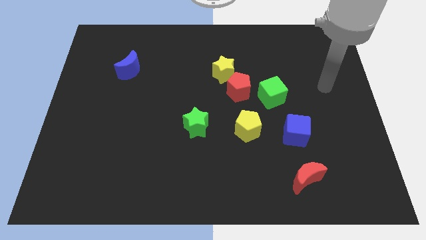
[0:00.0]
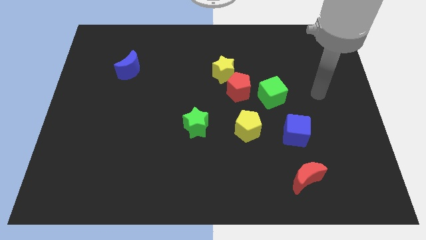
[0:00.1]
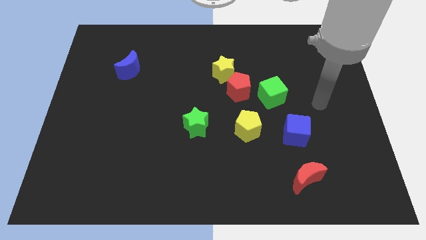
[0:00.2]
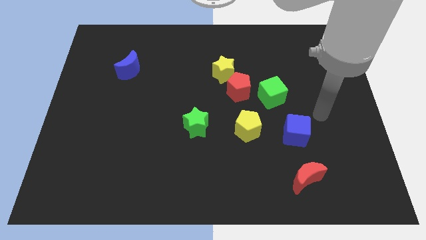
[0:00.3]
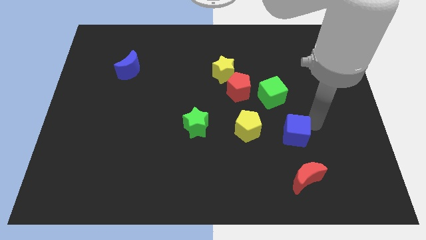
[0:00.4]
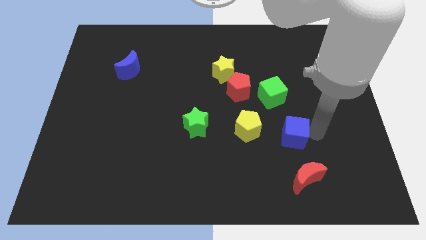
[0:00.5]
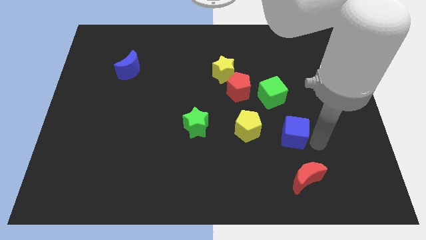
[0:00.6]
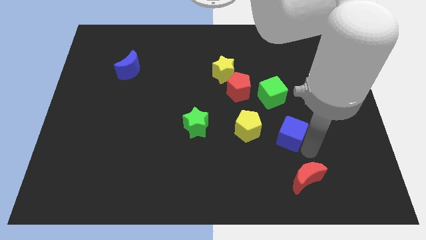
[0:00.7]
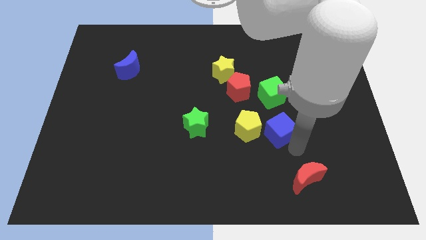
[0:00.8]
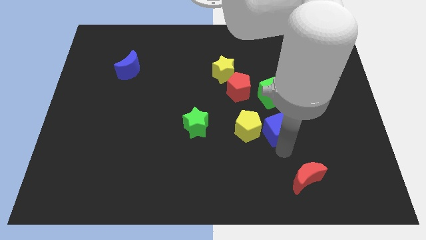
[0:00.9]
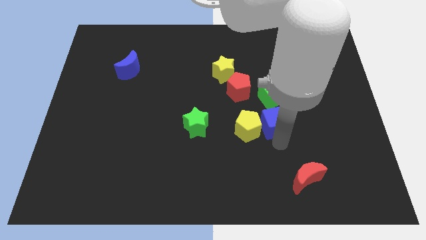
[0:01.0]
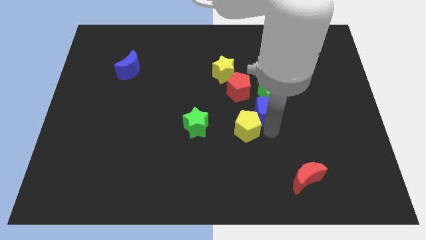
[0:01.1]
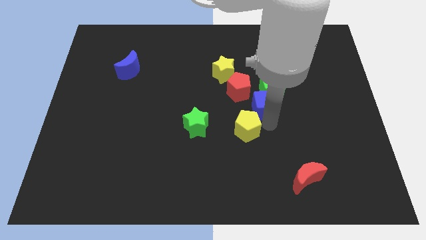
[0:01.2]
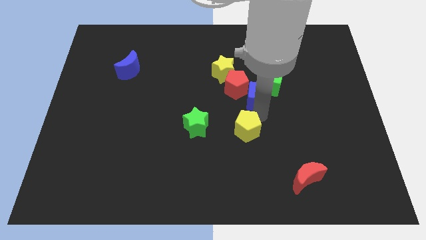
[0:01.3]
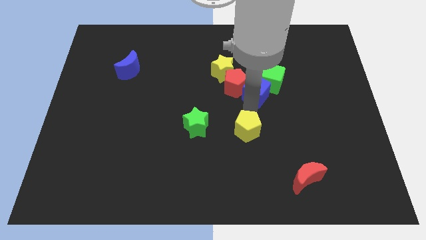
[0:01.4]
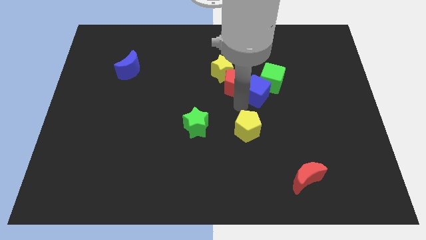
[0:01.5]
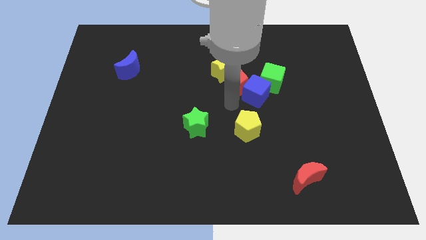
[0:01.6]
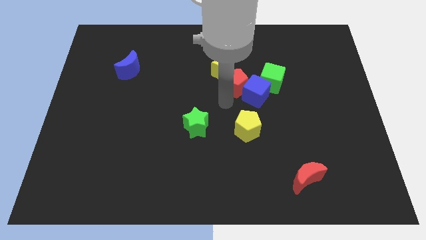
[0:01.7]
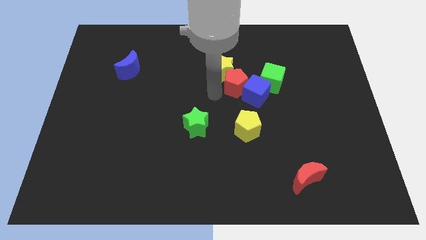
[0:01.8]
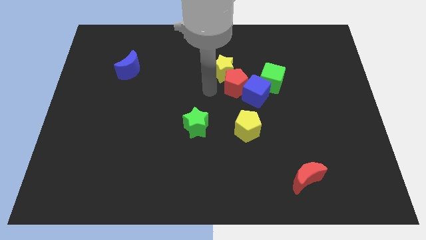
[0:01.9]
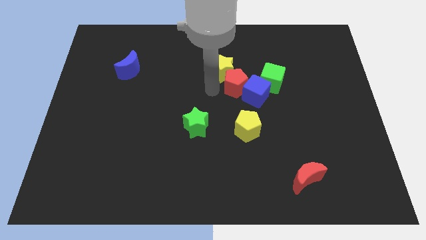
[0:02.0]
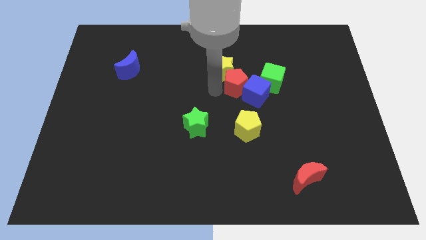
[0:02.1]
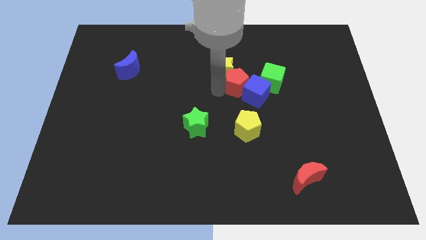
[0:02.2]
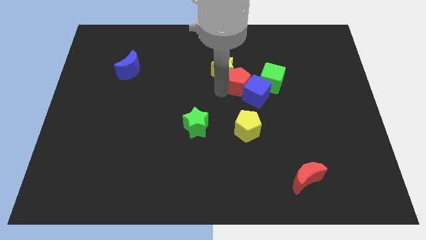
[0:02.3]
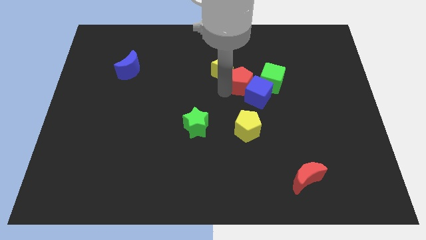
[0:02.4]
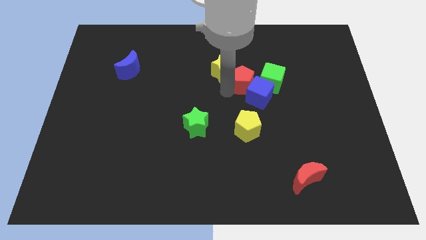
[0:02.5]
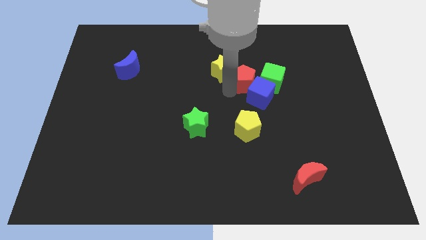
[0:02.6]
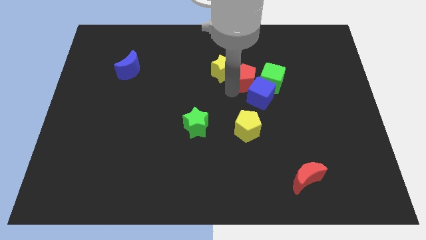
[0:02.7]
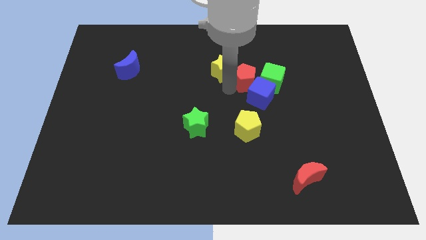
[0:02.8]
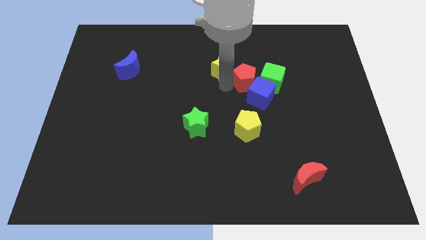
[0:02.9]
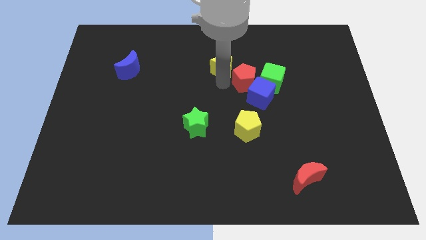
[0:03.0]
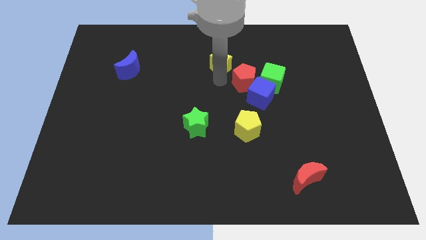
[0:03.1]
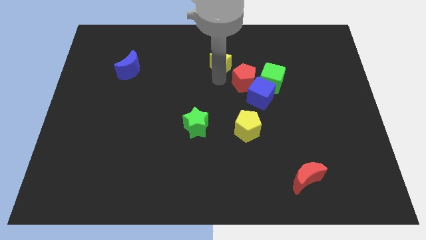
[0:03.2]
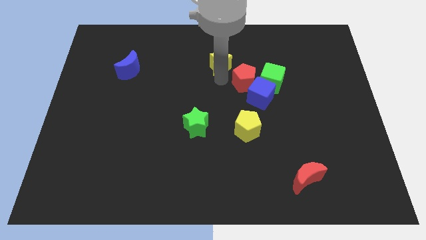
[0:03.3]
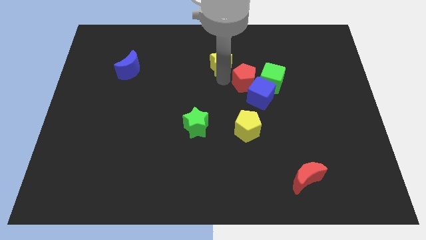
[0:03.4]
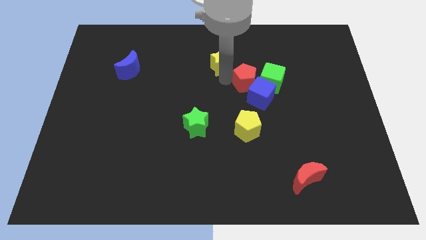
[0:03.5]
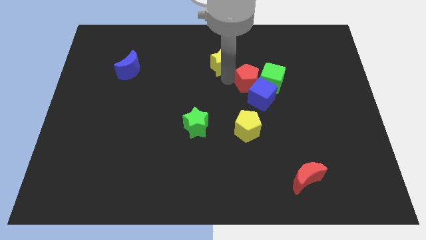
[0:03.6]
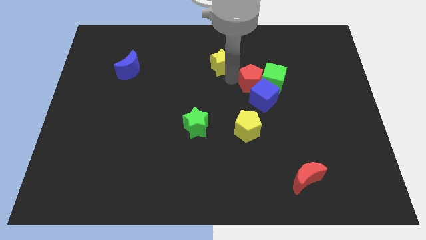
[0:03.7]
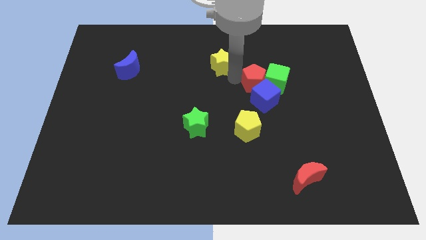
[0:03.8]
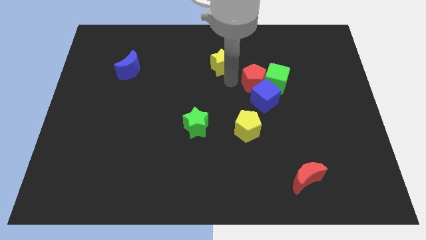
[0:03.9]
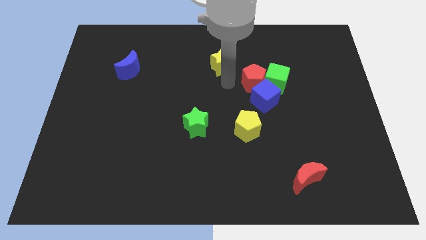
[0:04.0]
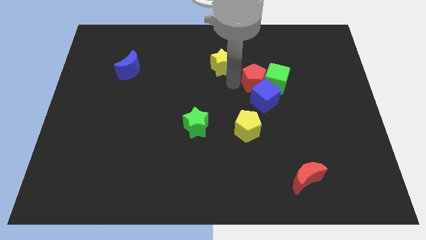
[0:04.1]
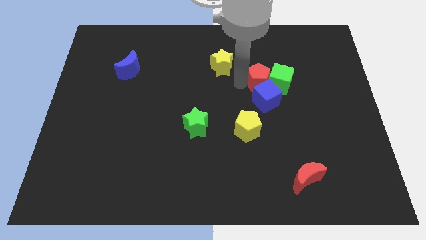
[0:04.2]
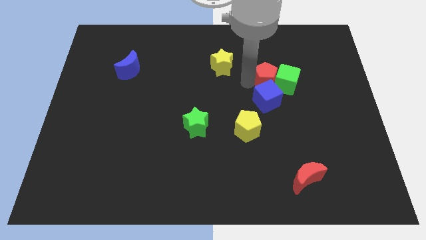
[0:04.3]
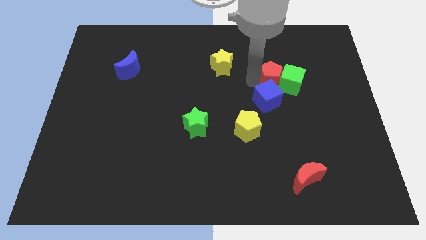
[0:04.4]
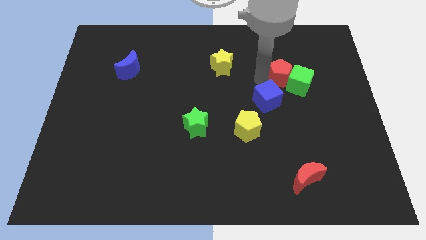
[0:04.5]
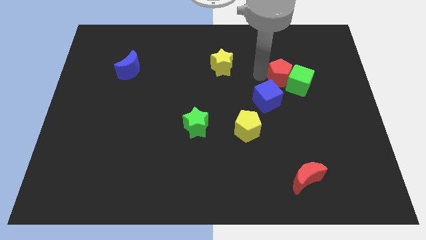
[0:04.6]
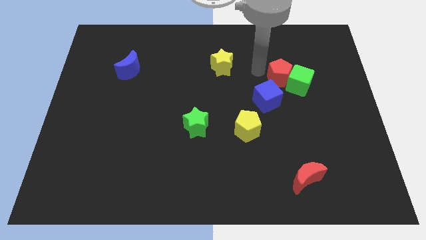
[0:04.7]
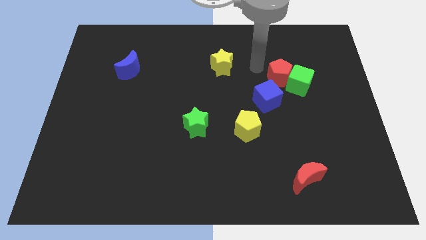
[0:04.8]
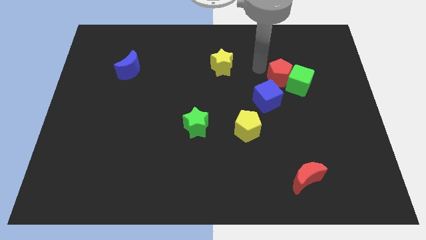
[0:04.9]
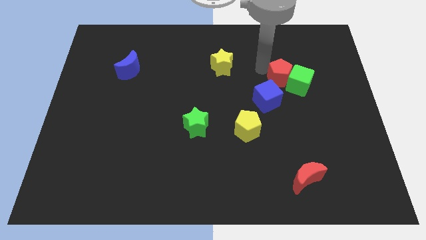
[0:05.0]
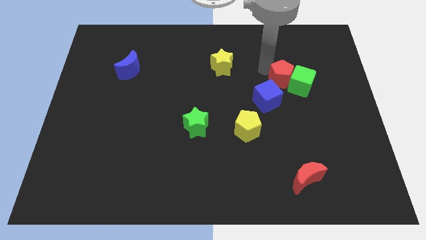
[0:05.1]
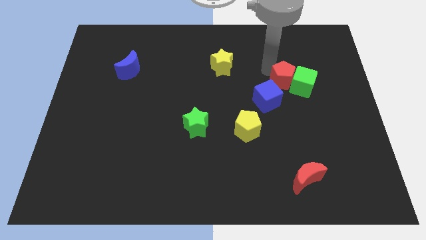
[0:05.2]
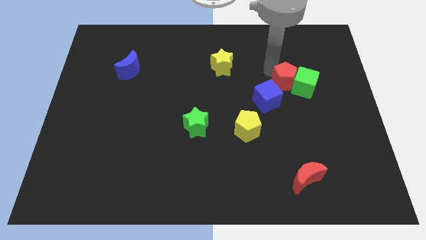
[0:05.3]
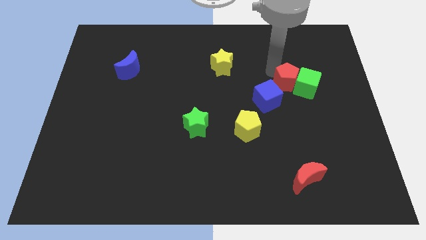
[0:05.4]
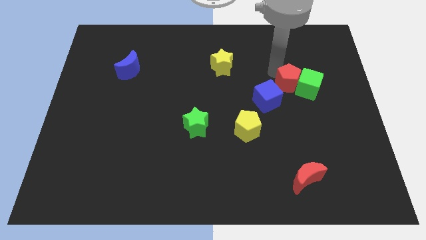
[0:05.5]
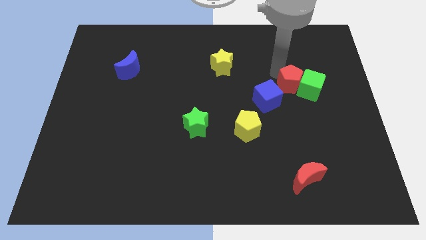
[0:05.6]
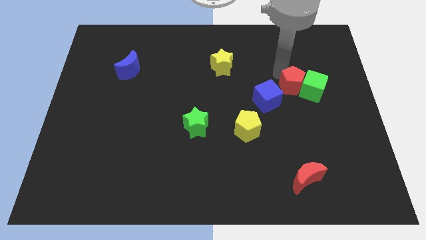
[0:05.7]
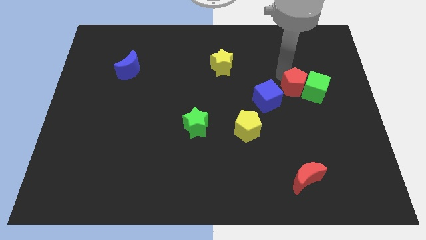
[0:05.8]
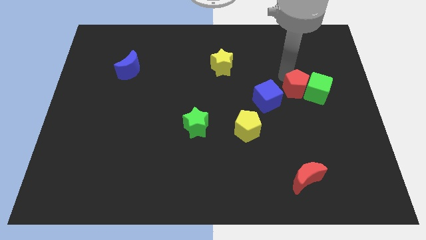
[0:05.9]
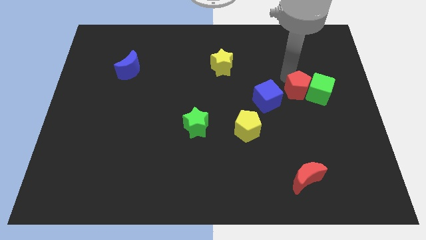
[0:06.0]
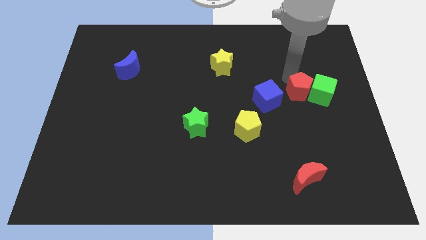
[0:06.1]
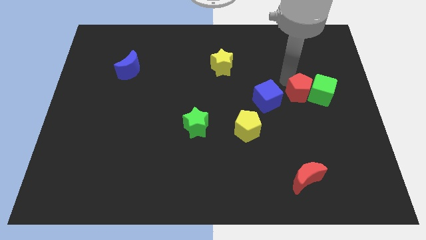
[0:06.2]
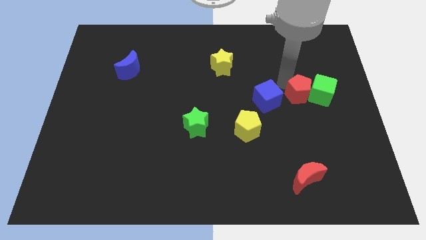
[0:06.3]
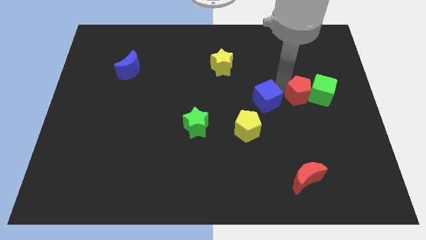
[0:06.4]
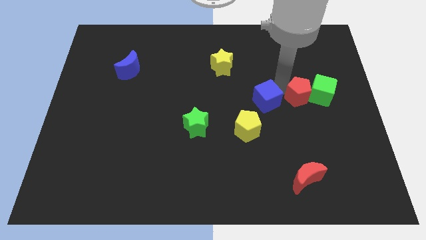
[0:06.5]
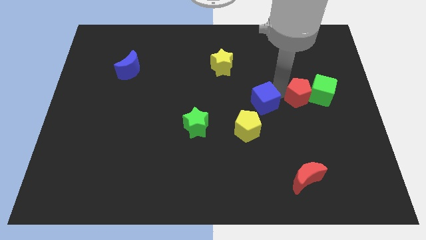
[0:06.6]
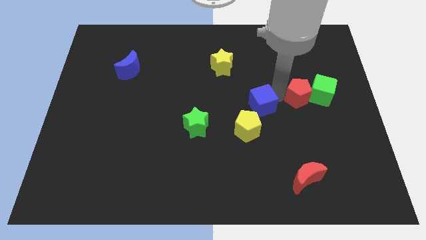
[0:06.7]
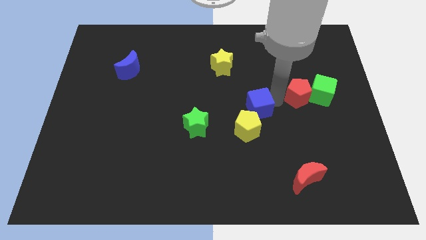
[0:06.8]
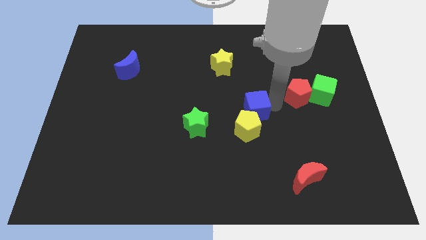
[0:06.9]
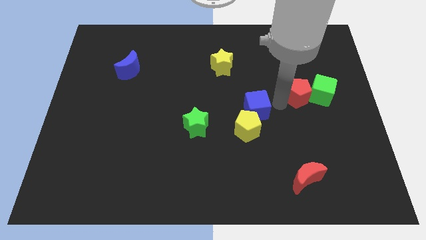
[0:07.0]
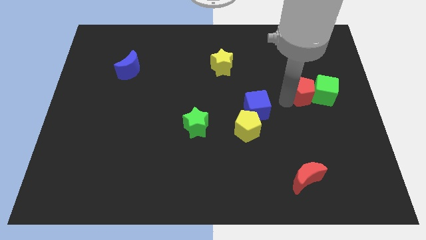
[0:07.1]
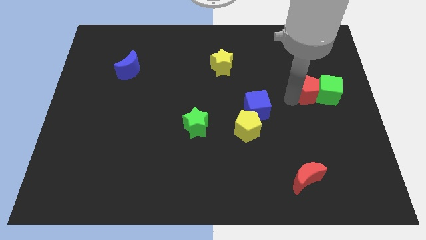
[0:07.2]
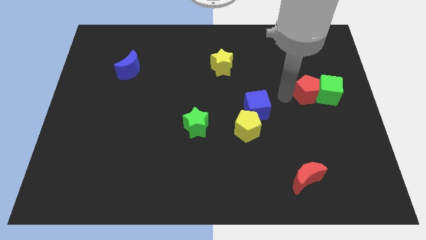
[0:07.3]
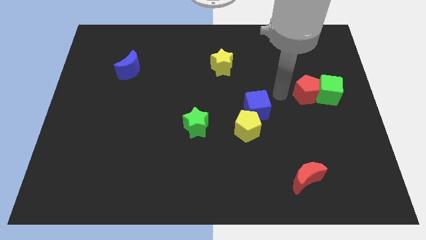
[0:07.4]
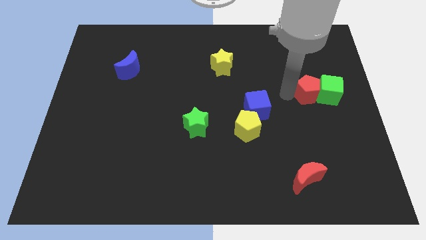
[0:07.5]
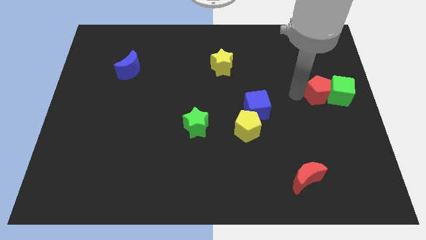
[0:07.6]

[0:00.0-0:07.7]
put the red pentagon to the right side
